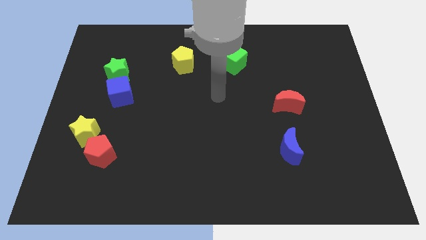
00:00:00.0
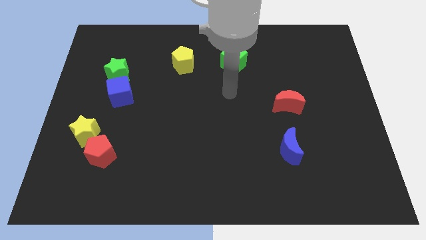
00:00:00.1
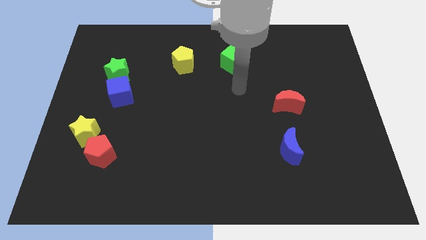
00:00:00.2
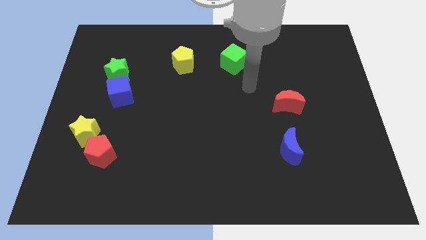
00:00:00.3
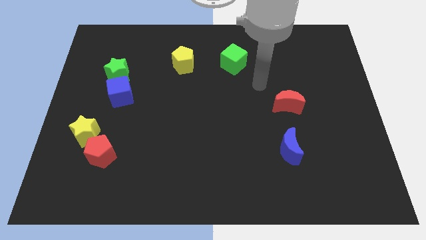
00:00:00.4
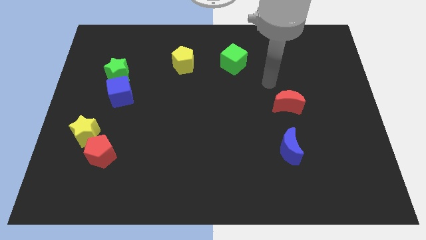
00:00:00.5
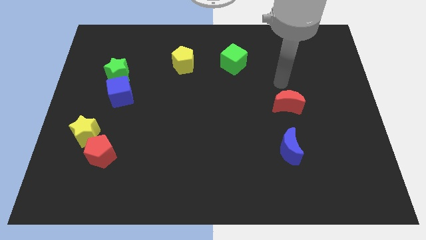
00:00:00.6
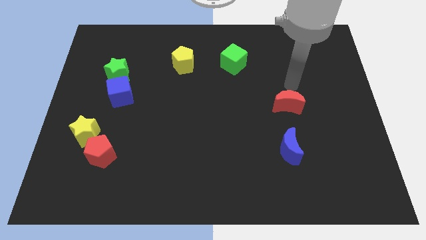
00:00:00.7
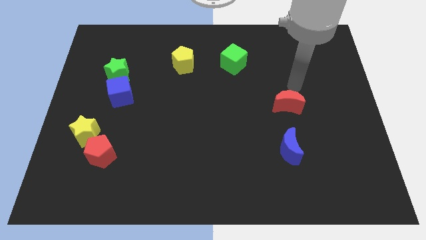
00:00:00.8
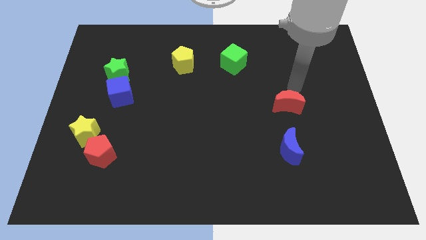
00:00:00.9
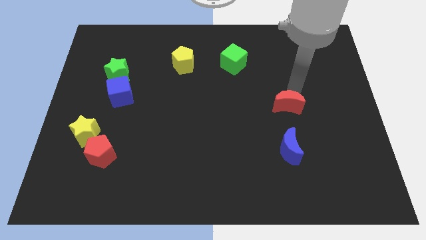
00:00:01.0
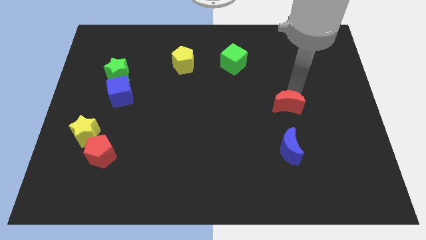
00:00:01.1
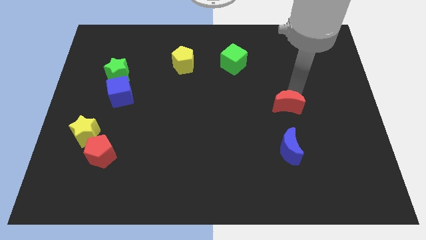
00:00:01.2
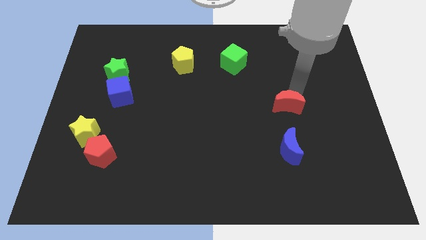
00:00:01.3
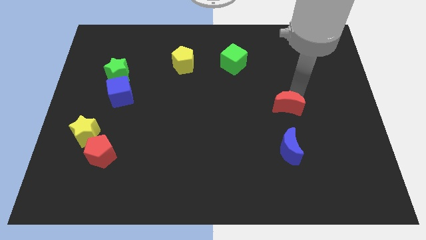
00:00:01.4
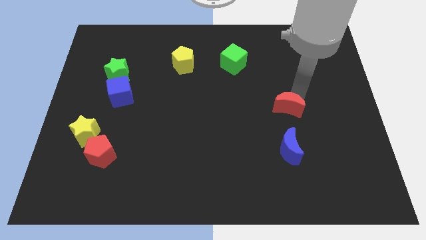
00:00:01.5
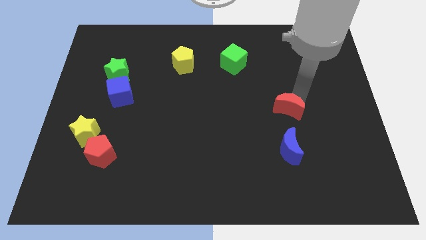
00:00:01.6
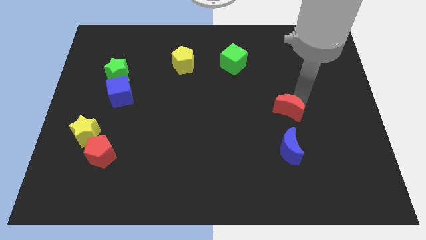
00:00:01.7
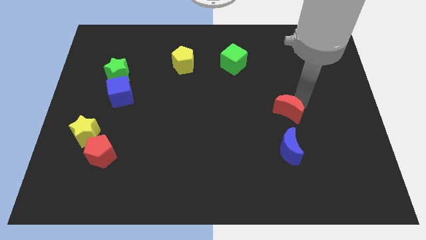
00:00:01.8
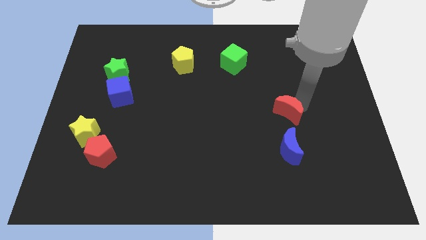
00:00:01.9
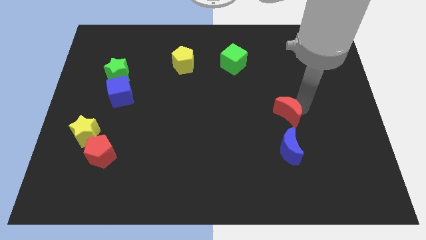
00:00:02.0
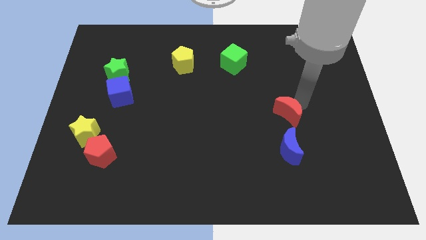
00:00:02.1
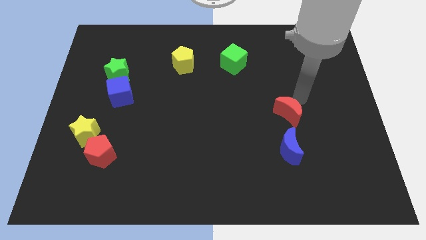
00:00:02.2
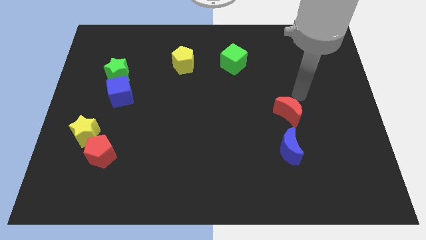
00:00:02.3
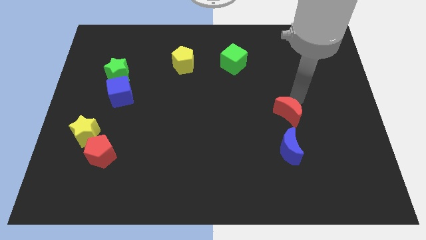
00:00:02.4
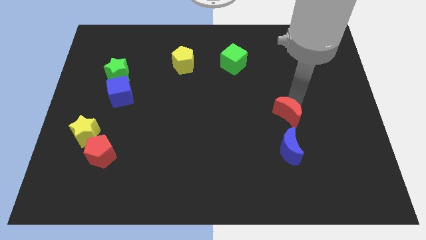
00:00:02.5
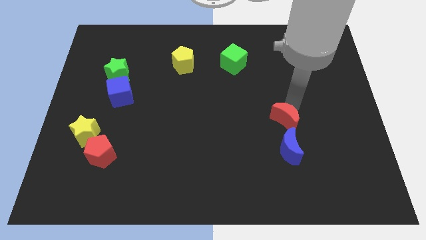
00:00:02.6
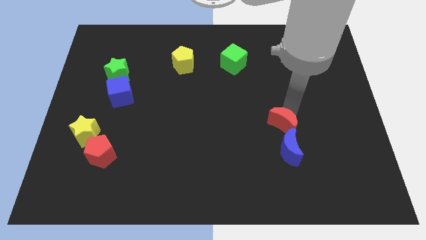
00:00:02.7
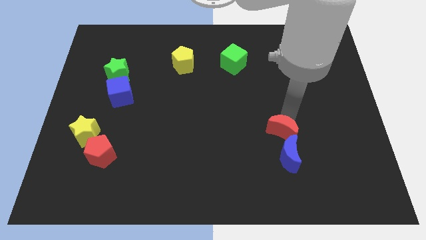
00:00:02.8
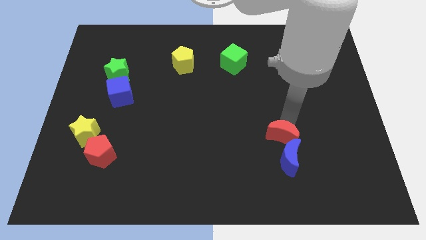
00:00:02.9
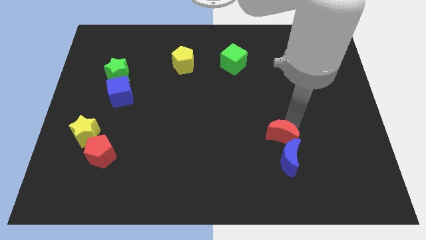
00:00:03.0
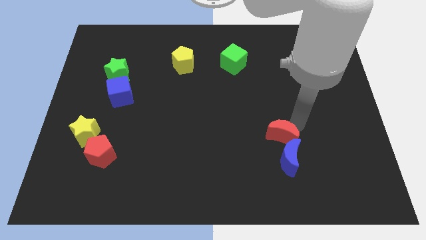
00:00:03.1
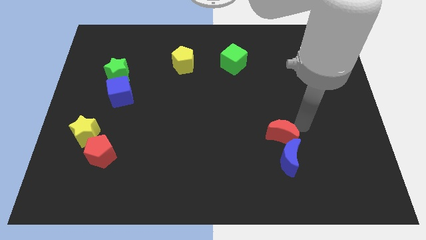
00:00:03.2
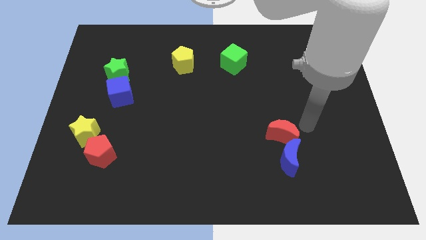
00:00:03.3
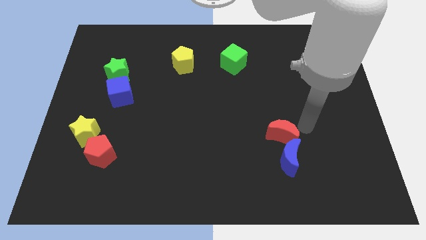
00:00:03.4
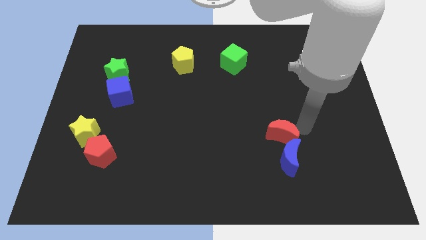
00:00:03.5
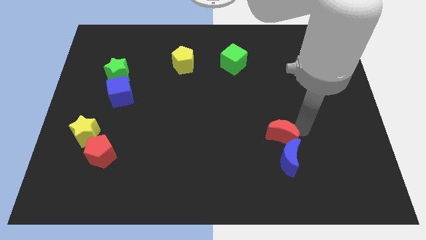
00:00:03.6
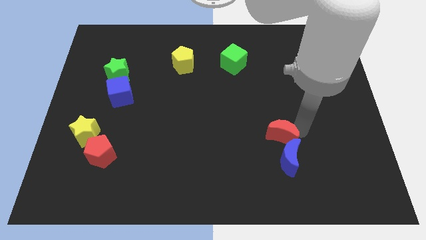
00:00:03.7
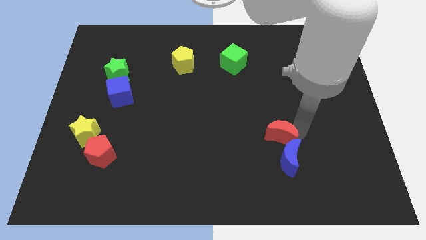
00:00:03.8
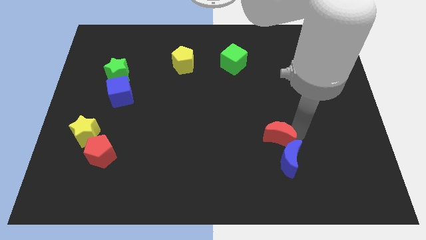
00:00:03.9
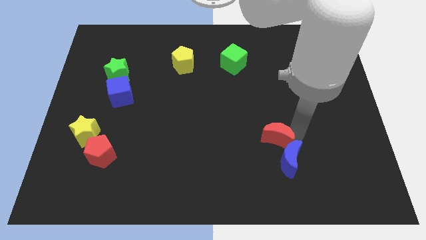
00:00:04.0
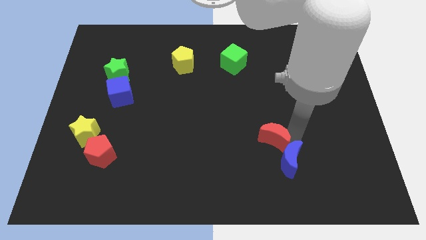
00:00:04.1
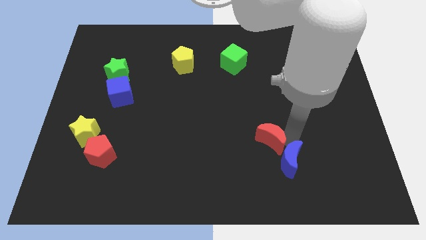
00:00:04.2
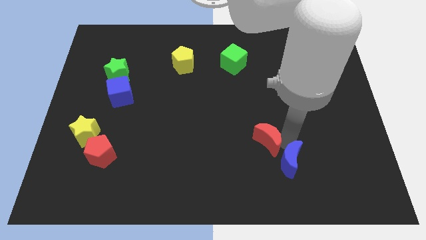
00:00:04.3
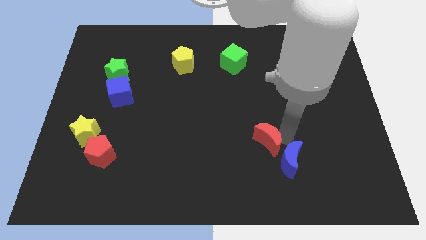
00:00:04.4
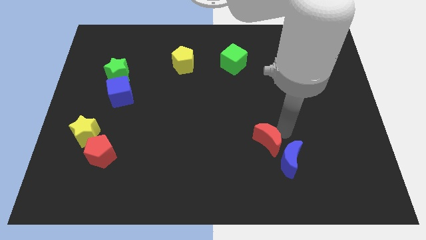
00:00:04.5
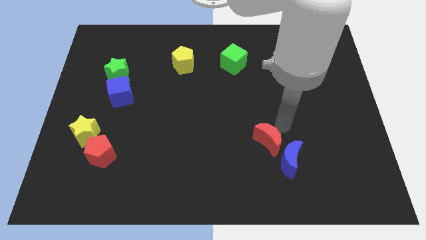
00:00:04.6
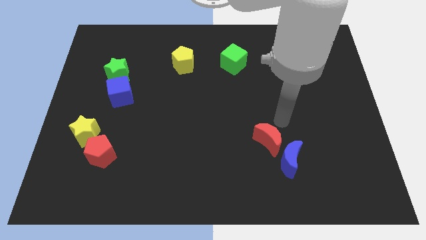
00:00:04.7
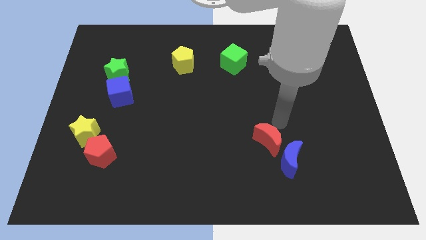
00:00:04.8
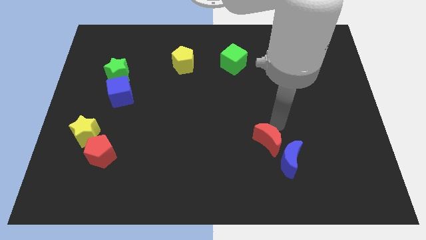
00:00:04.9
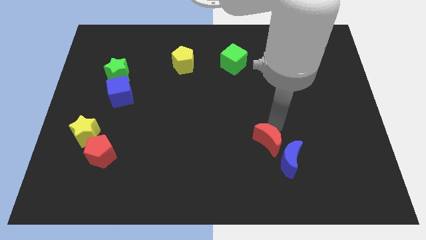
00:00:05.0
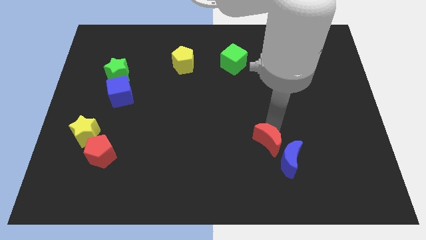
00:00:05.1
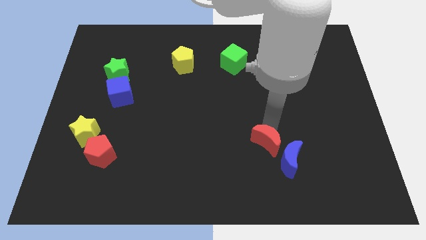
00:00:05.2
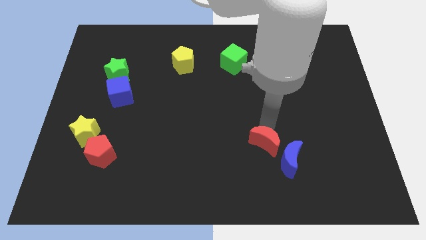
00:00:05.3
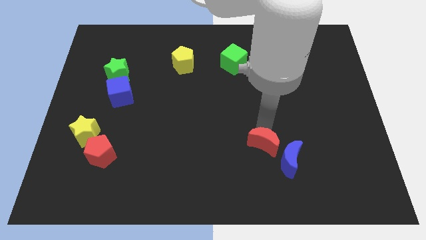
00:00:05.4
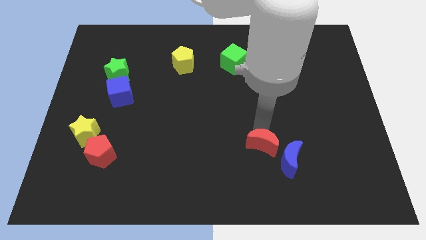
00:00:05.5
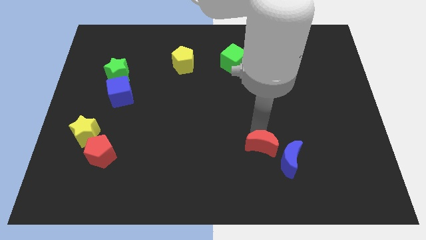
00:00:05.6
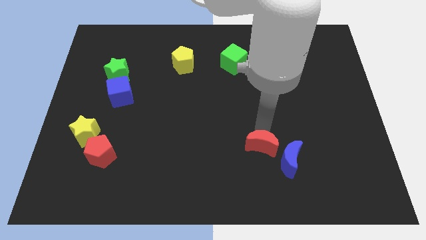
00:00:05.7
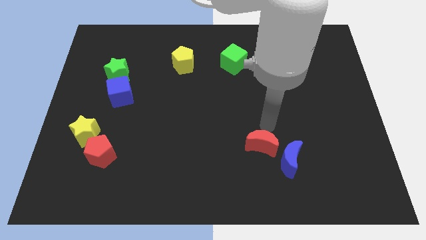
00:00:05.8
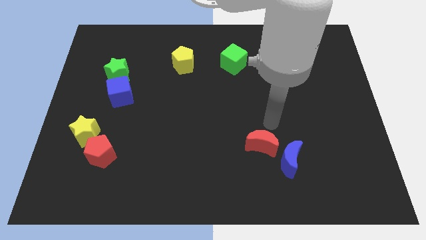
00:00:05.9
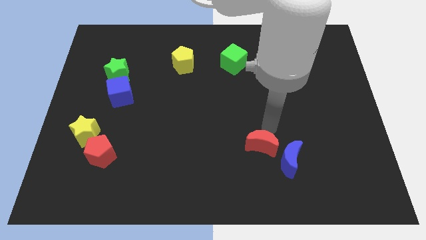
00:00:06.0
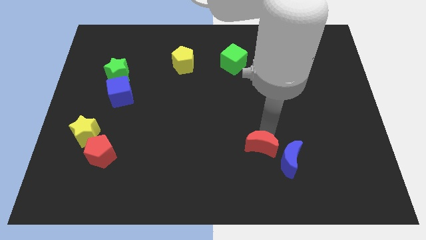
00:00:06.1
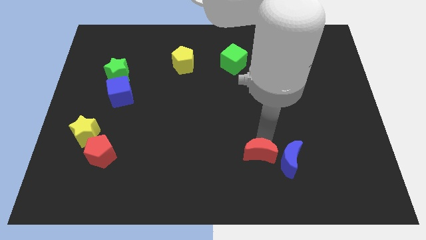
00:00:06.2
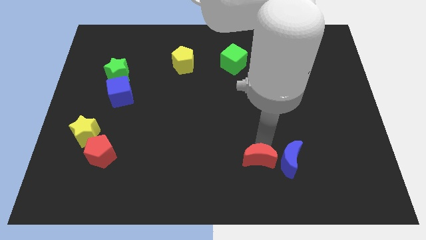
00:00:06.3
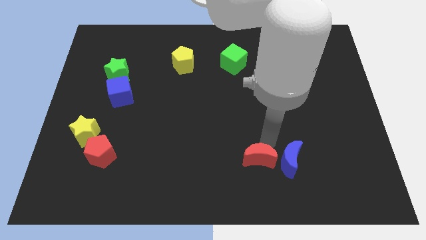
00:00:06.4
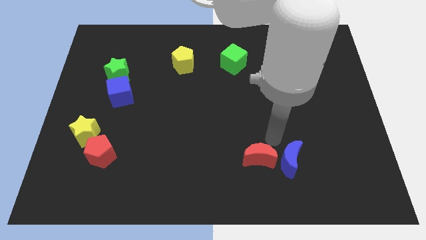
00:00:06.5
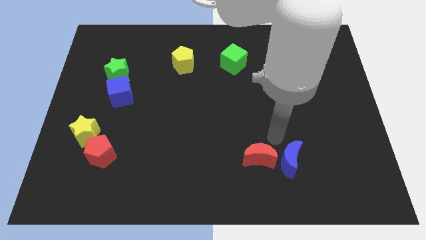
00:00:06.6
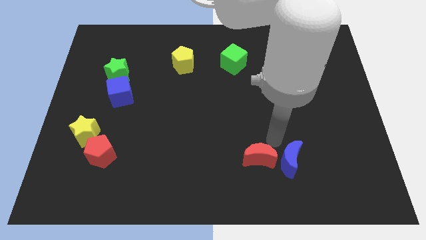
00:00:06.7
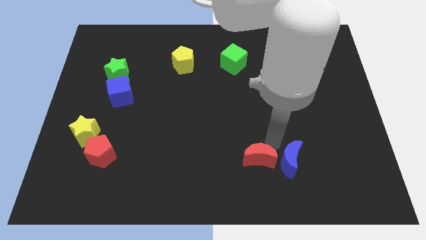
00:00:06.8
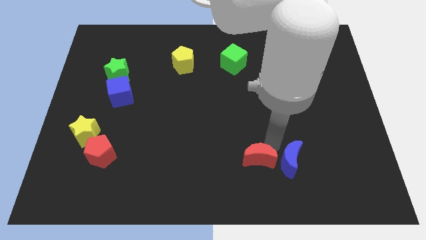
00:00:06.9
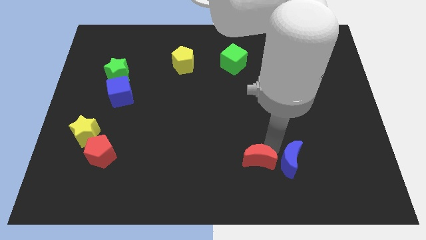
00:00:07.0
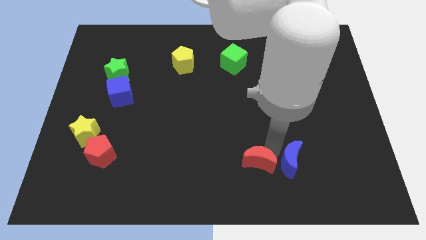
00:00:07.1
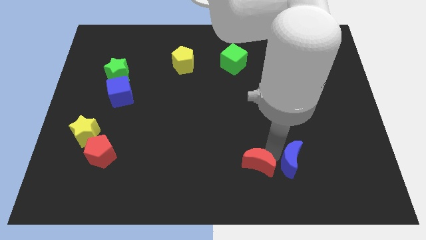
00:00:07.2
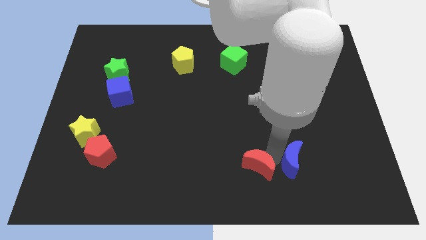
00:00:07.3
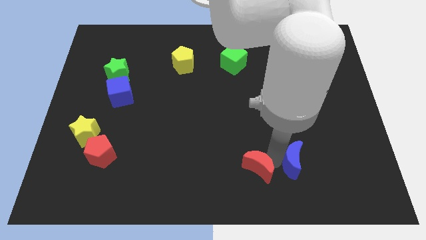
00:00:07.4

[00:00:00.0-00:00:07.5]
slide the red moon to the bottom side
